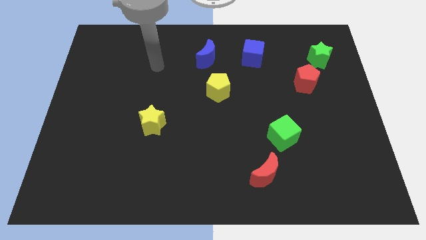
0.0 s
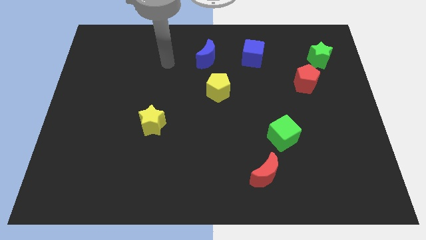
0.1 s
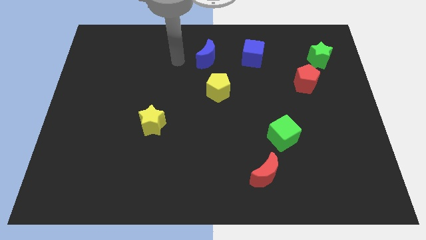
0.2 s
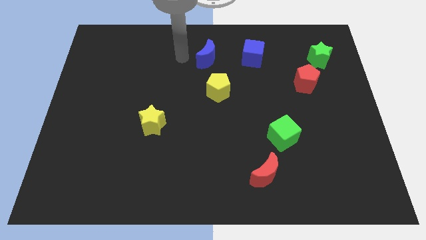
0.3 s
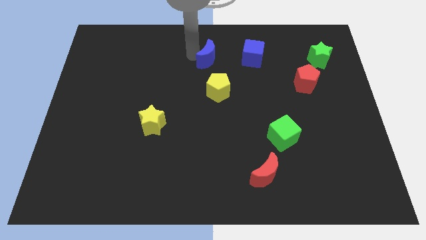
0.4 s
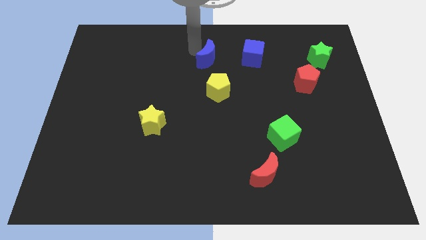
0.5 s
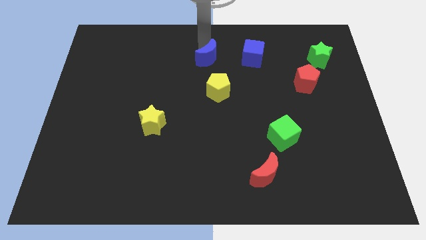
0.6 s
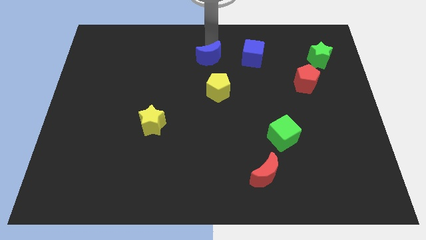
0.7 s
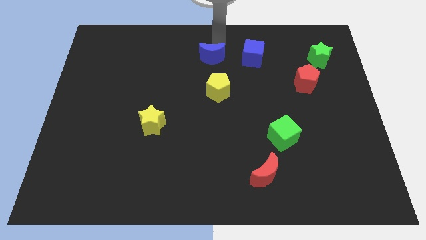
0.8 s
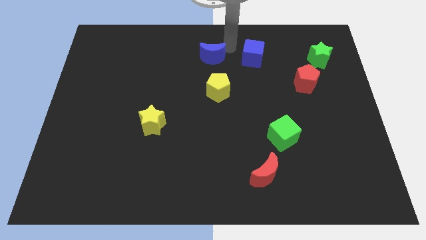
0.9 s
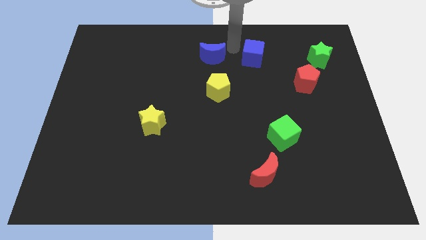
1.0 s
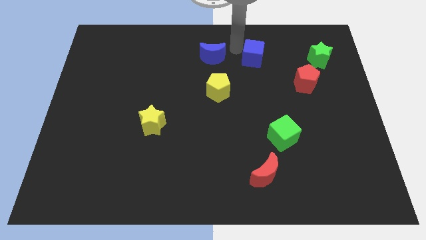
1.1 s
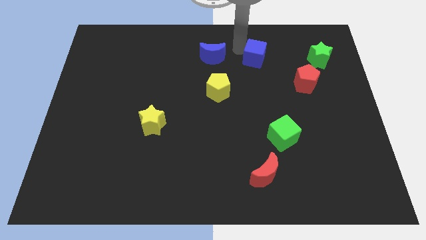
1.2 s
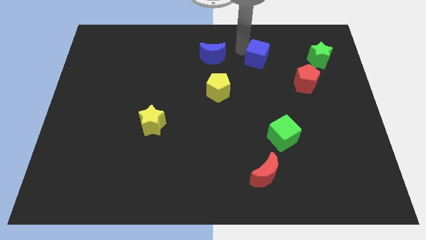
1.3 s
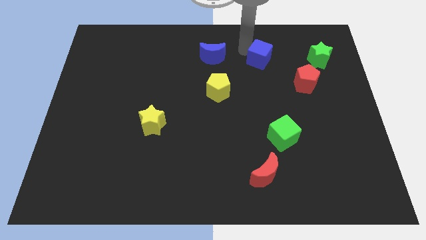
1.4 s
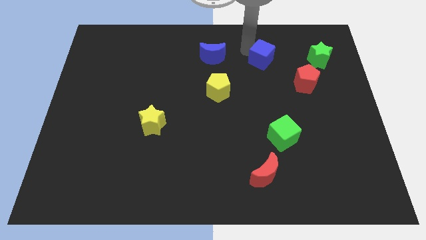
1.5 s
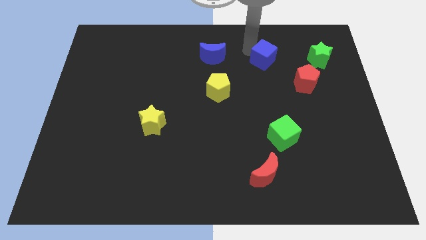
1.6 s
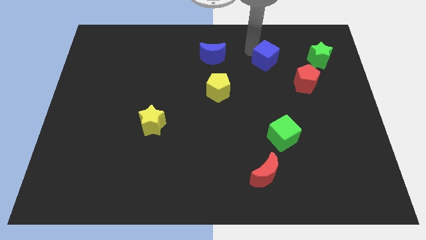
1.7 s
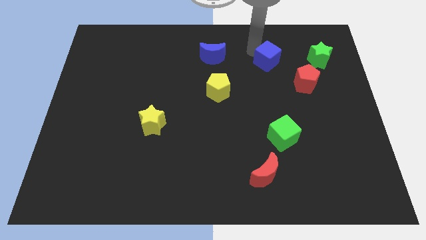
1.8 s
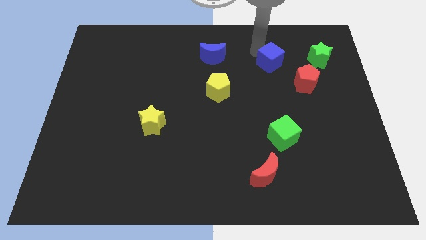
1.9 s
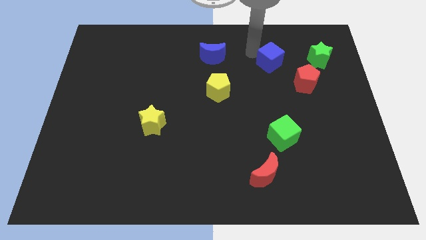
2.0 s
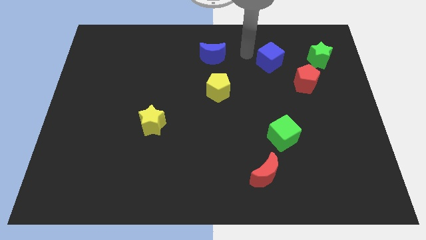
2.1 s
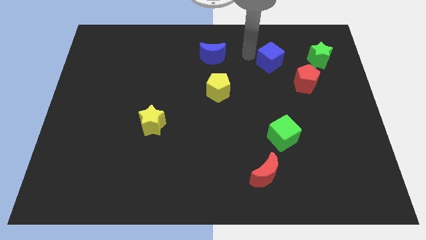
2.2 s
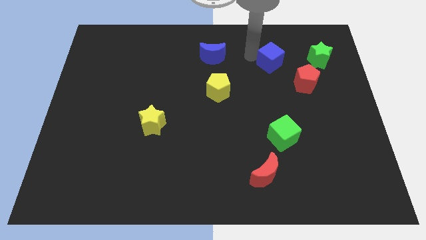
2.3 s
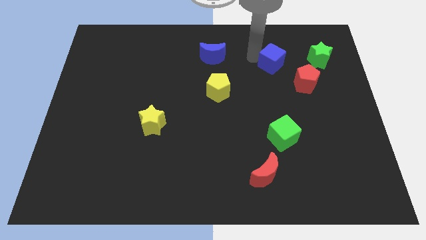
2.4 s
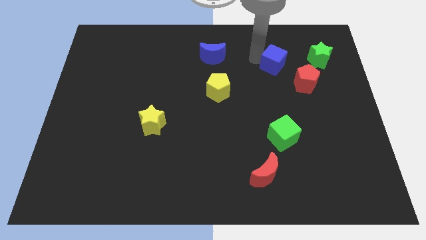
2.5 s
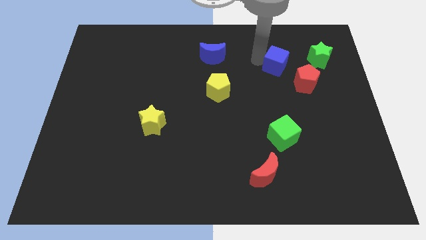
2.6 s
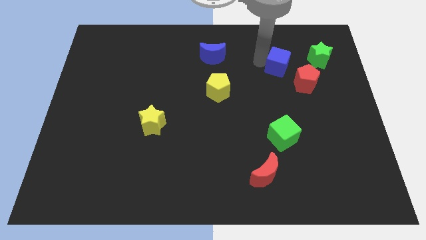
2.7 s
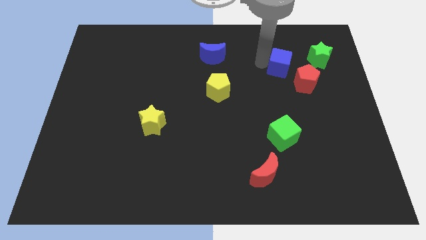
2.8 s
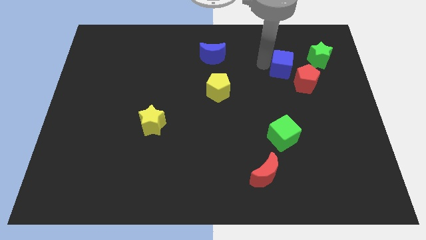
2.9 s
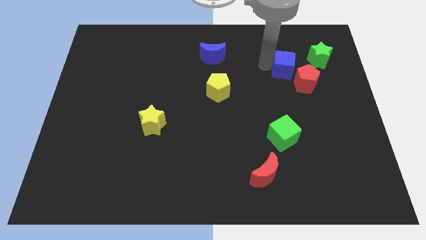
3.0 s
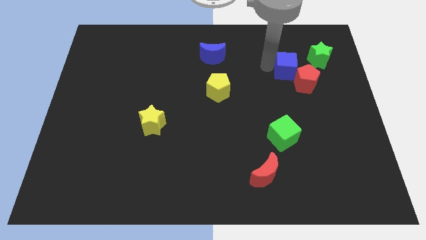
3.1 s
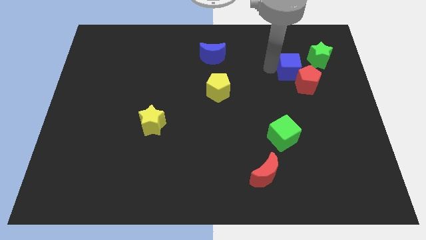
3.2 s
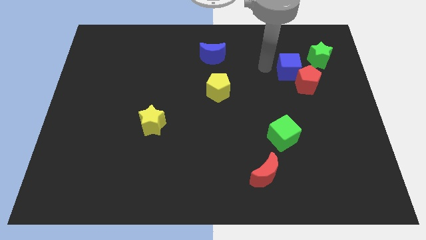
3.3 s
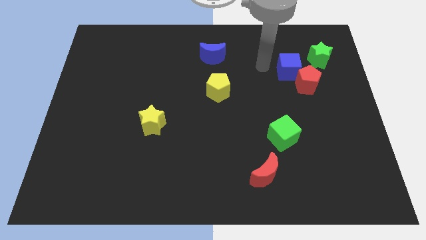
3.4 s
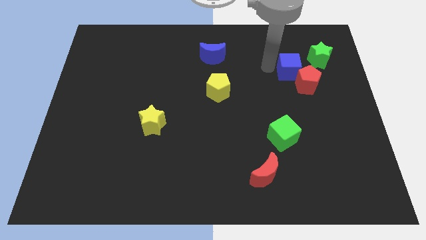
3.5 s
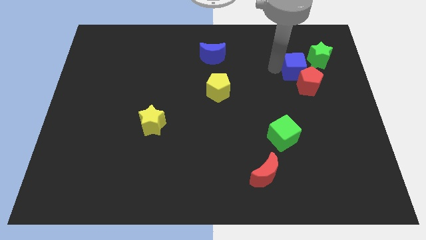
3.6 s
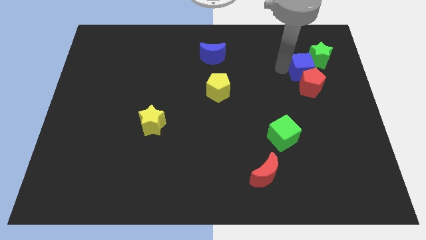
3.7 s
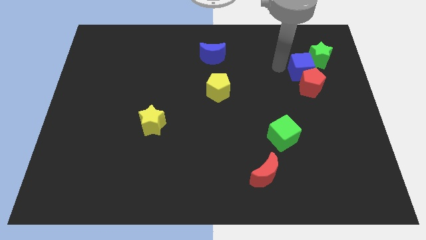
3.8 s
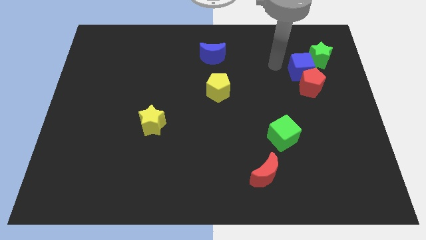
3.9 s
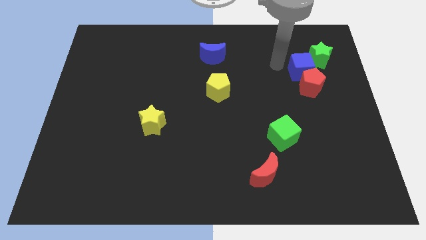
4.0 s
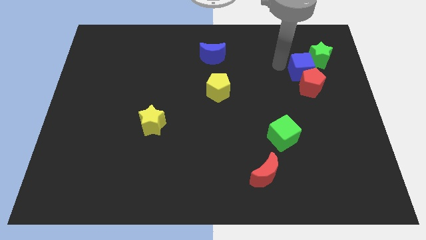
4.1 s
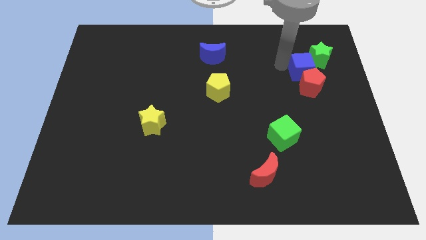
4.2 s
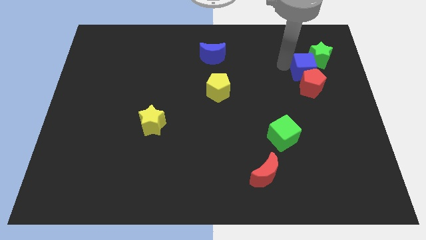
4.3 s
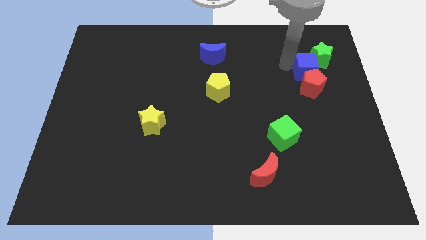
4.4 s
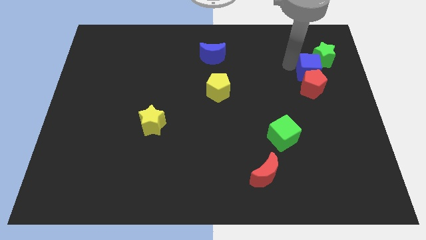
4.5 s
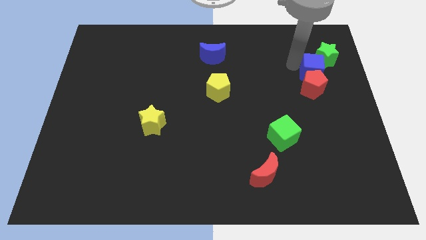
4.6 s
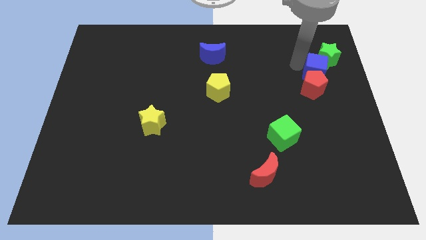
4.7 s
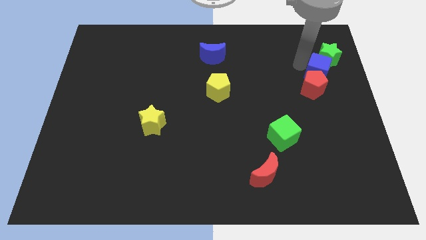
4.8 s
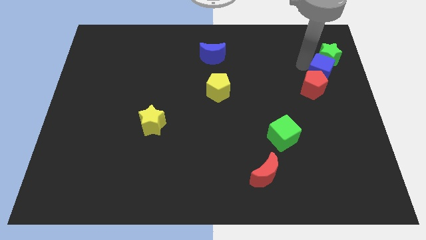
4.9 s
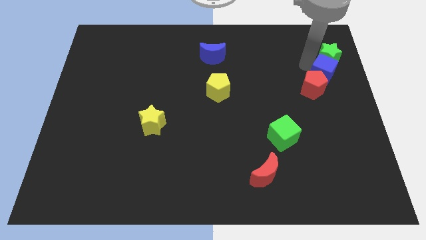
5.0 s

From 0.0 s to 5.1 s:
push the blue cube to the right side

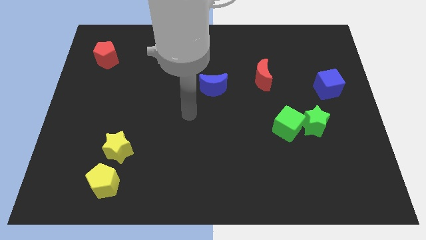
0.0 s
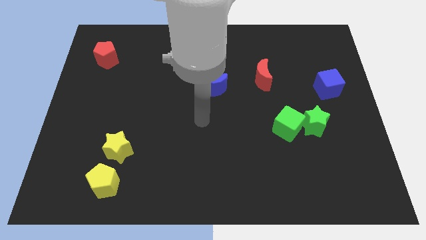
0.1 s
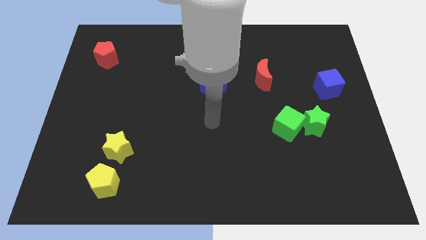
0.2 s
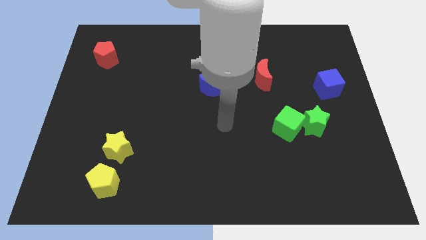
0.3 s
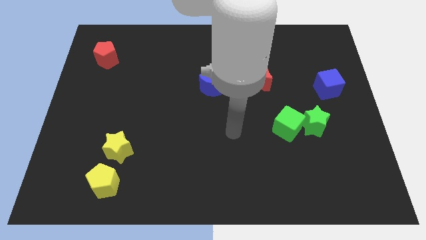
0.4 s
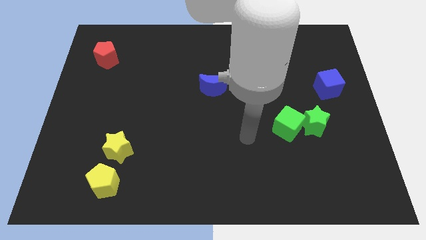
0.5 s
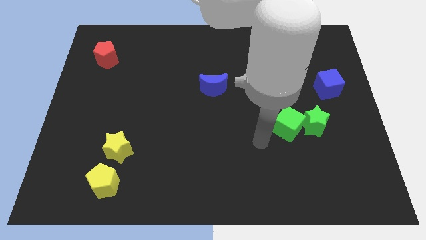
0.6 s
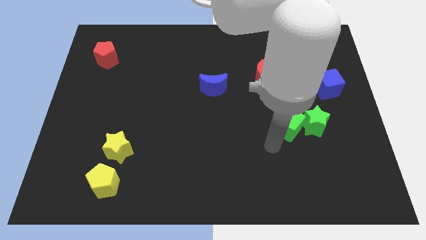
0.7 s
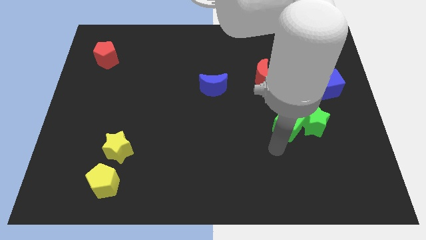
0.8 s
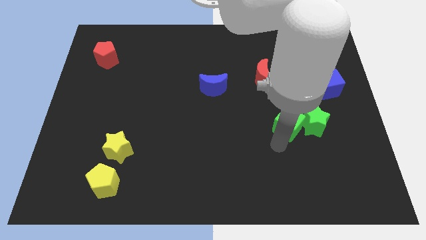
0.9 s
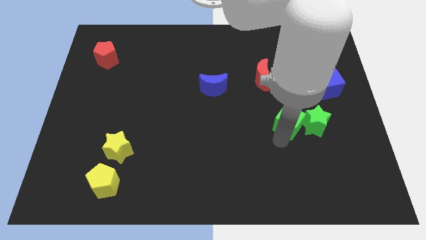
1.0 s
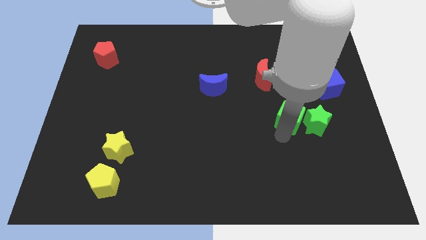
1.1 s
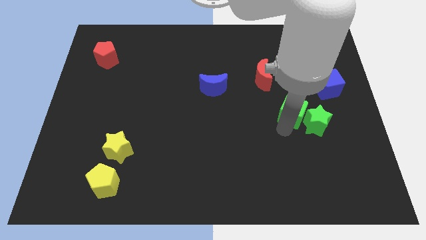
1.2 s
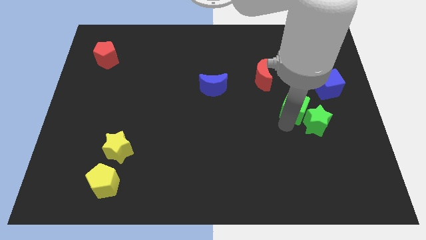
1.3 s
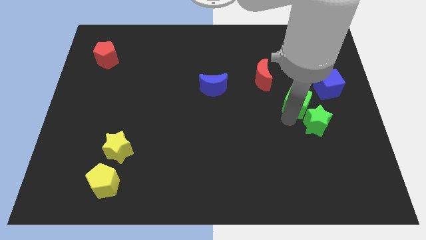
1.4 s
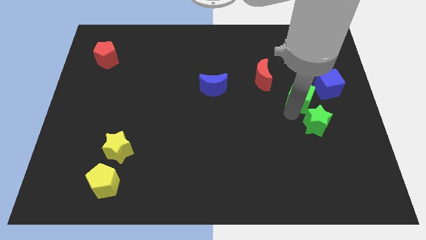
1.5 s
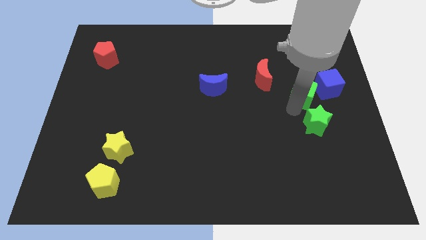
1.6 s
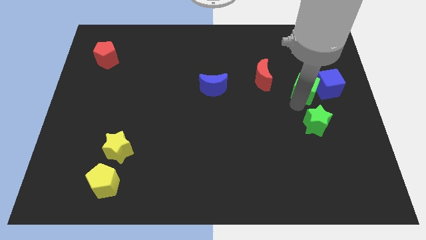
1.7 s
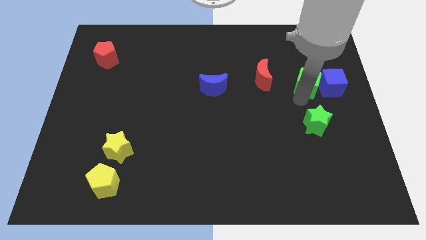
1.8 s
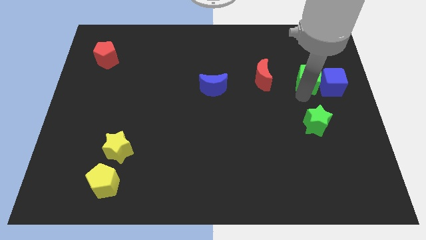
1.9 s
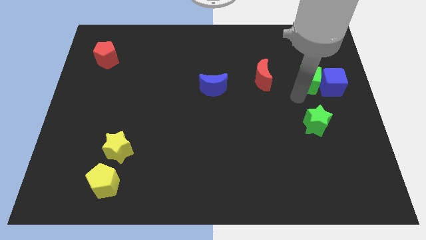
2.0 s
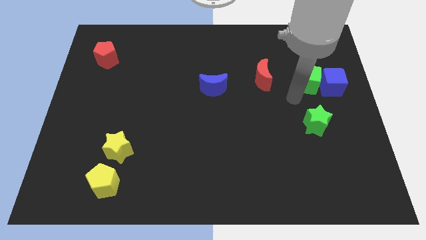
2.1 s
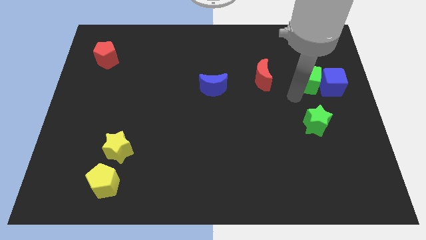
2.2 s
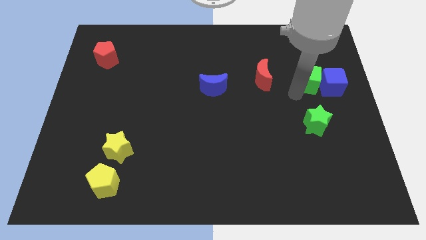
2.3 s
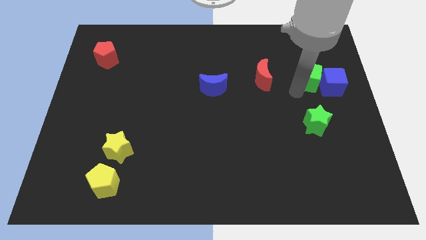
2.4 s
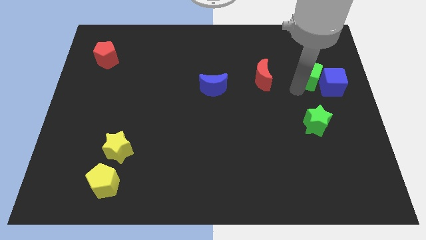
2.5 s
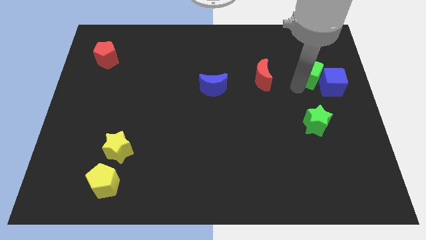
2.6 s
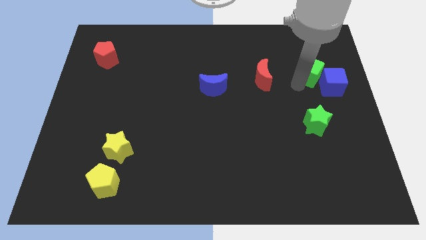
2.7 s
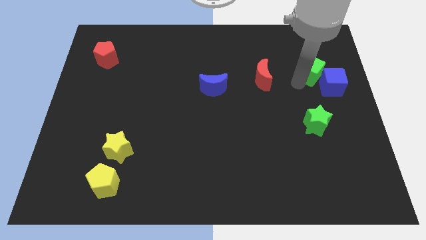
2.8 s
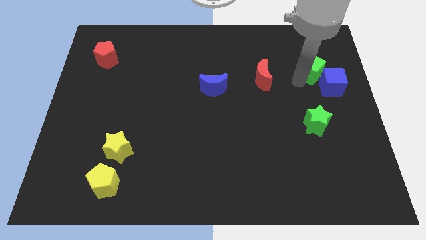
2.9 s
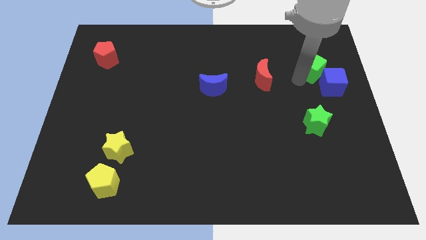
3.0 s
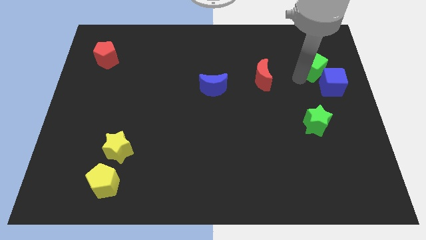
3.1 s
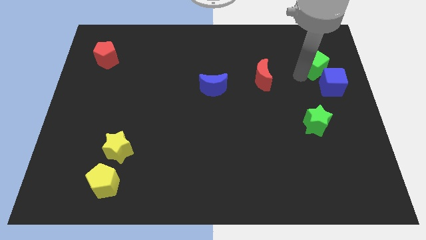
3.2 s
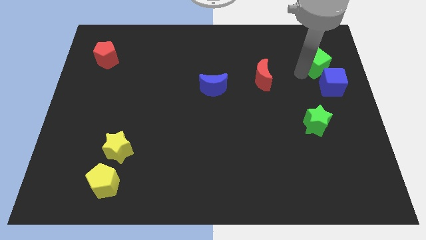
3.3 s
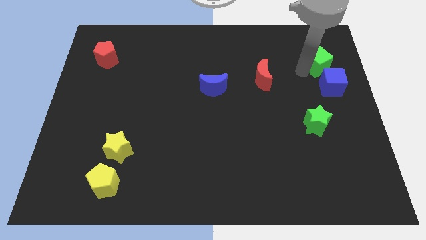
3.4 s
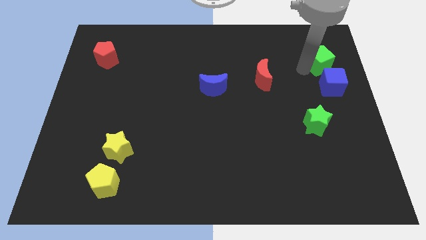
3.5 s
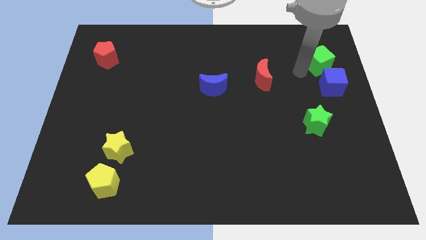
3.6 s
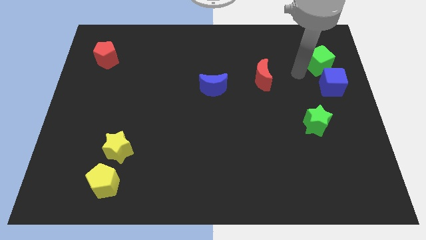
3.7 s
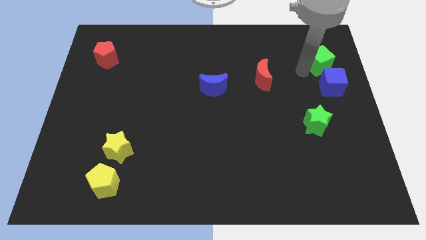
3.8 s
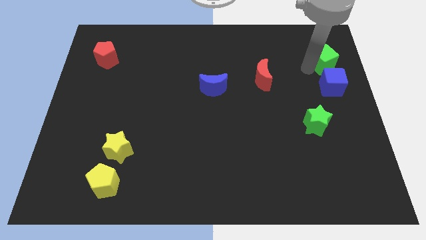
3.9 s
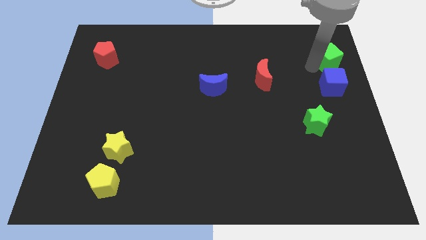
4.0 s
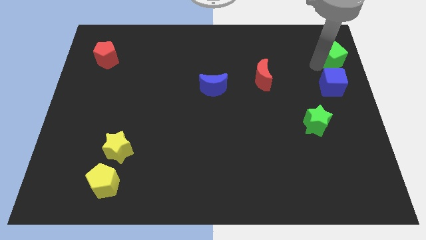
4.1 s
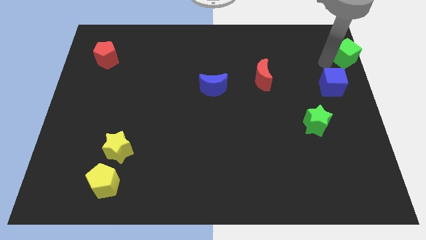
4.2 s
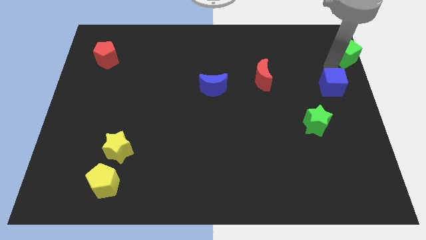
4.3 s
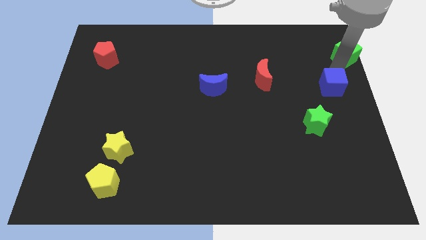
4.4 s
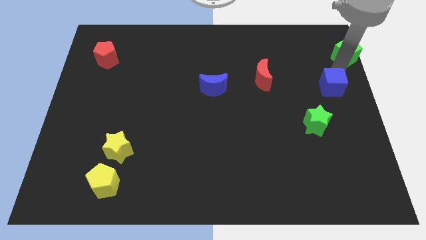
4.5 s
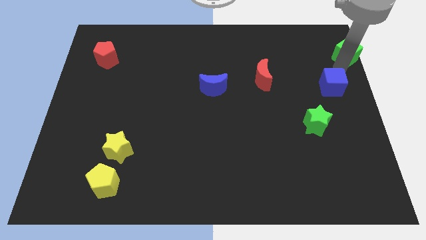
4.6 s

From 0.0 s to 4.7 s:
push the green cube to the upper right corner
